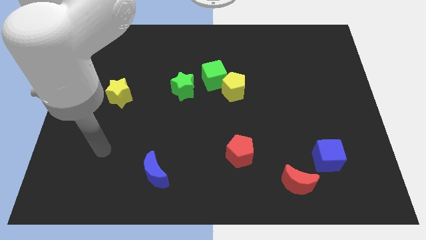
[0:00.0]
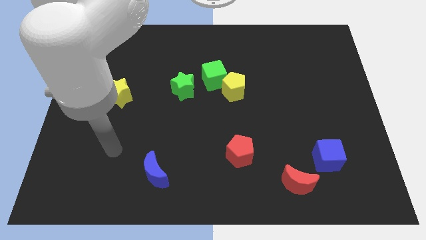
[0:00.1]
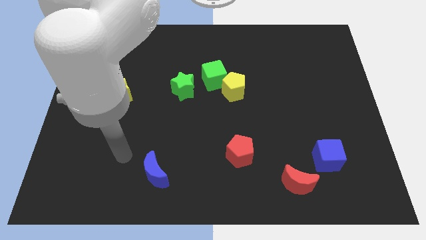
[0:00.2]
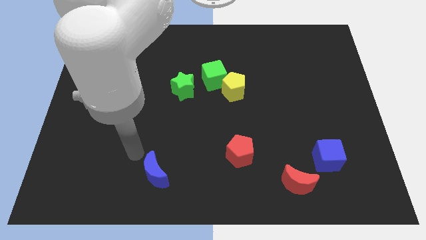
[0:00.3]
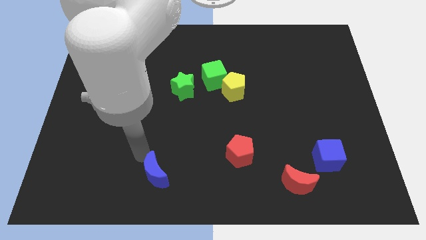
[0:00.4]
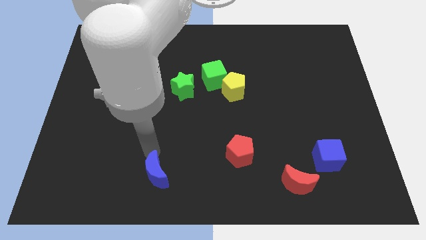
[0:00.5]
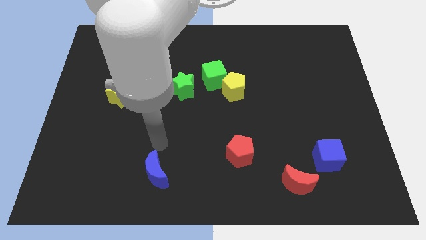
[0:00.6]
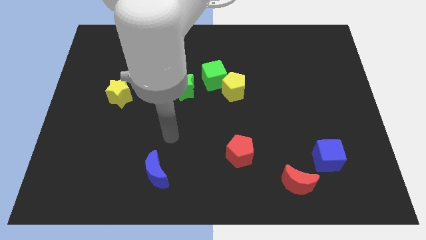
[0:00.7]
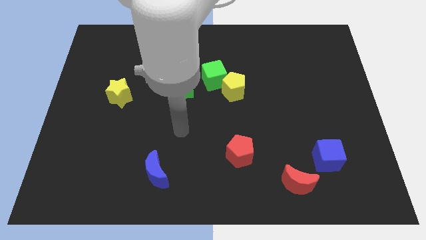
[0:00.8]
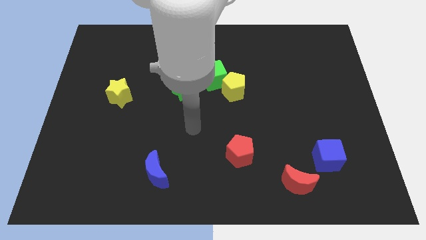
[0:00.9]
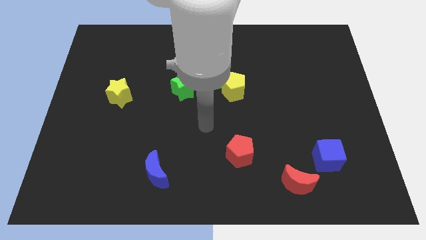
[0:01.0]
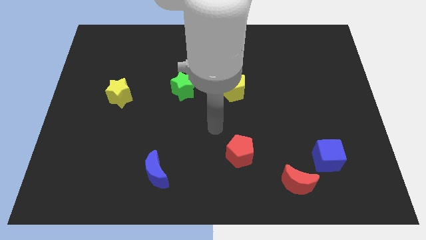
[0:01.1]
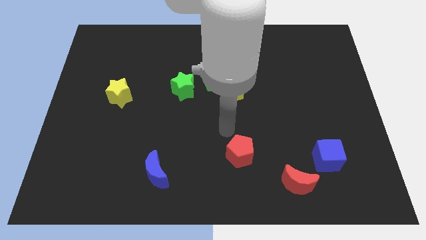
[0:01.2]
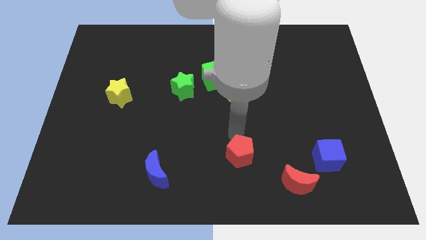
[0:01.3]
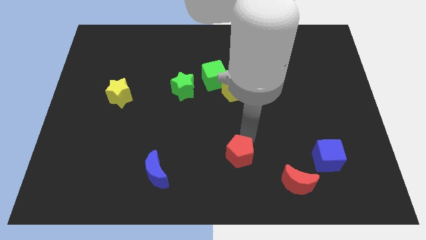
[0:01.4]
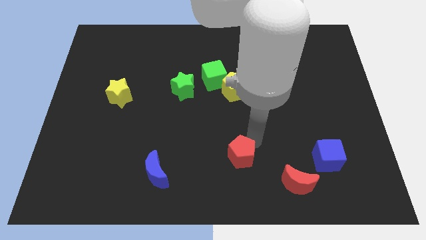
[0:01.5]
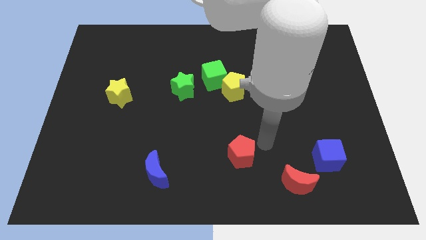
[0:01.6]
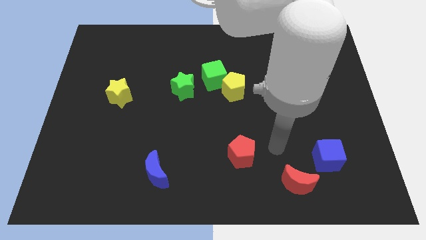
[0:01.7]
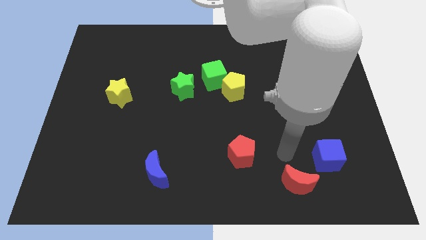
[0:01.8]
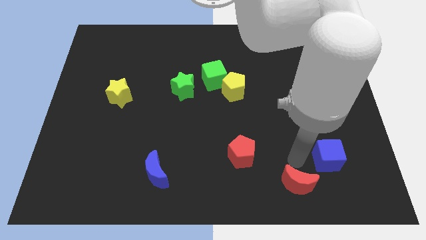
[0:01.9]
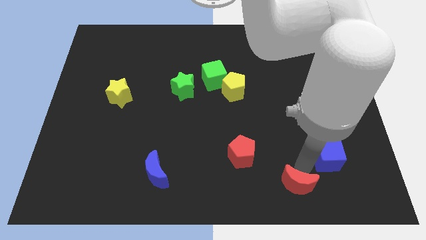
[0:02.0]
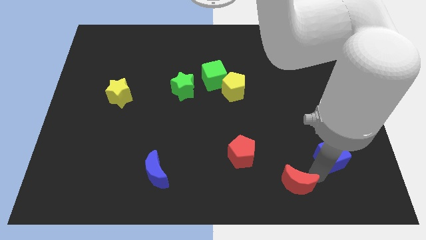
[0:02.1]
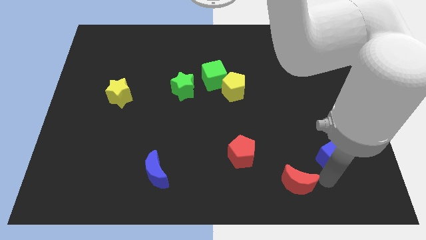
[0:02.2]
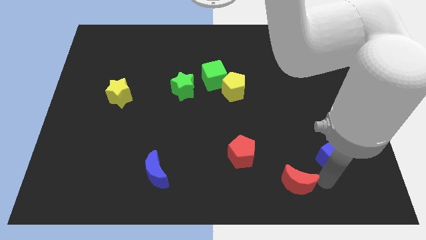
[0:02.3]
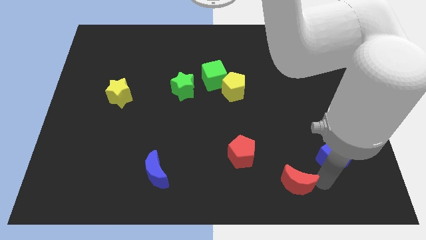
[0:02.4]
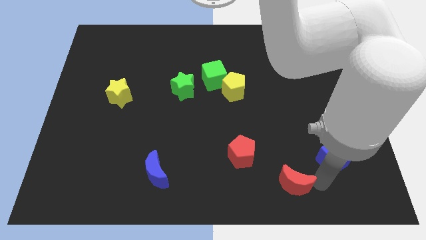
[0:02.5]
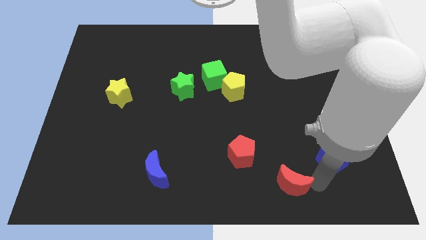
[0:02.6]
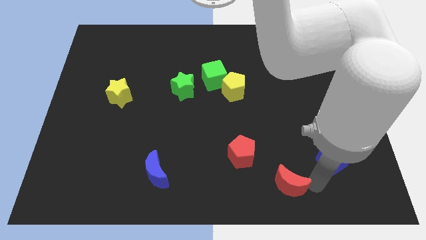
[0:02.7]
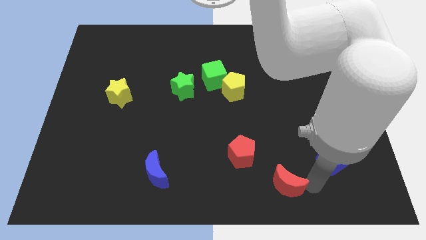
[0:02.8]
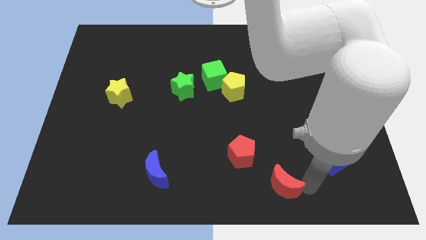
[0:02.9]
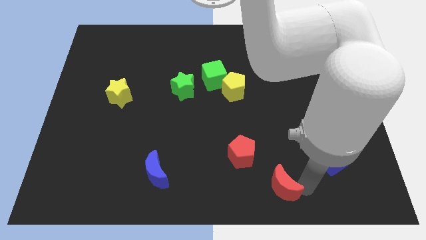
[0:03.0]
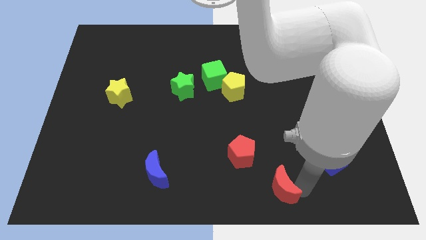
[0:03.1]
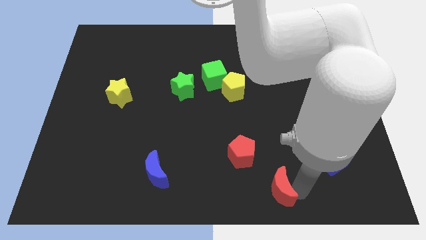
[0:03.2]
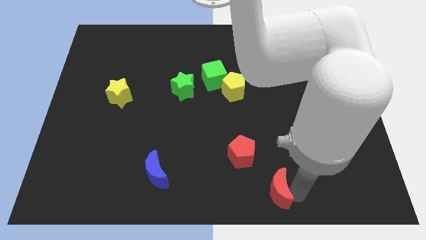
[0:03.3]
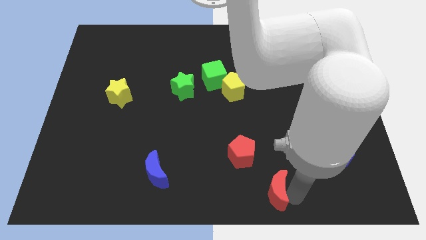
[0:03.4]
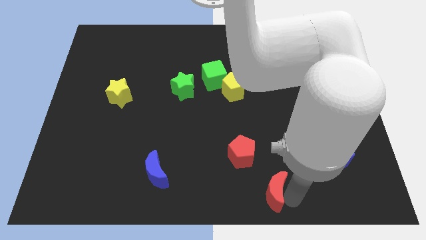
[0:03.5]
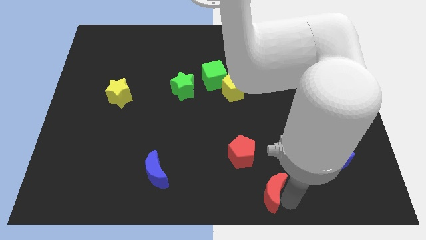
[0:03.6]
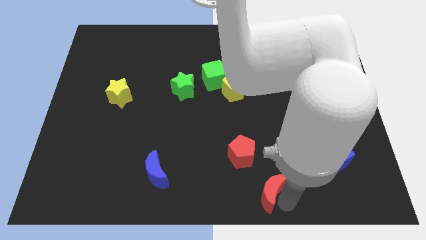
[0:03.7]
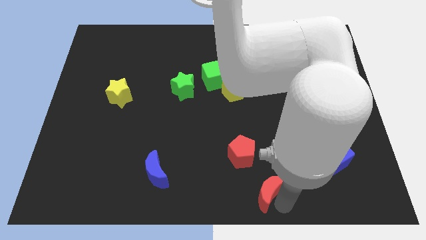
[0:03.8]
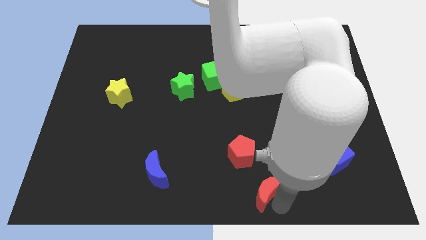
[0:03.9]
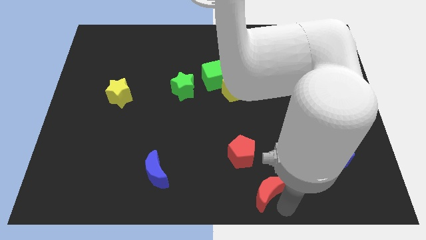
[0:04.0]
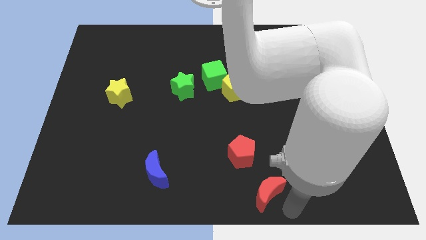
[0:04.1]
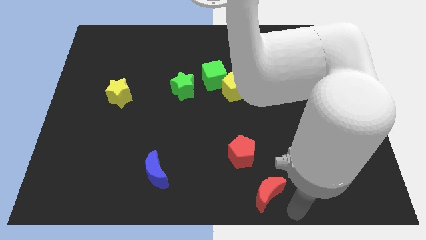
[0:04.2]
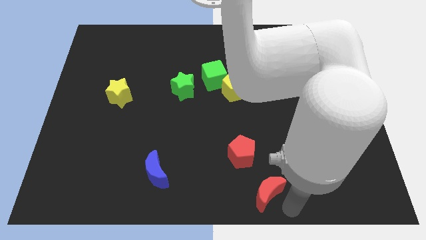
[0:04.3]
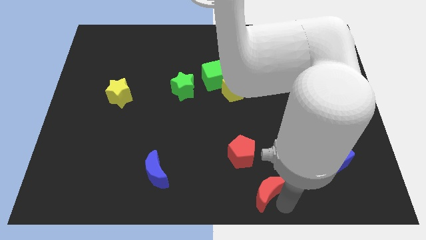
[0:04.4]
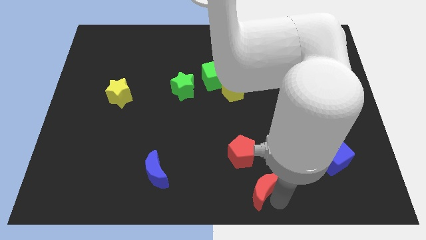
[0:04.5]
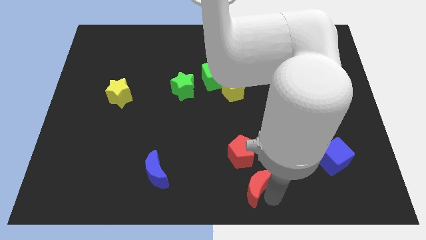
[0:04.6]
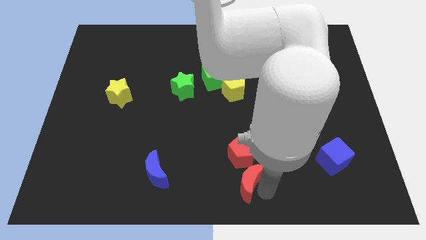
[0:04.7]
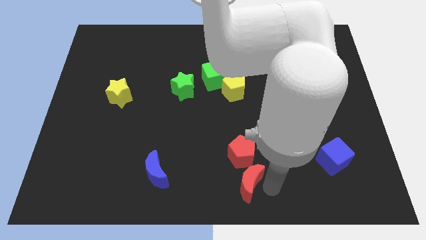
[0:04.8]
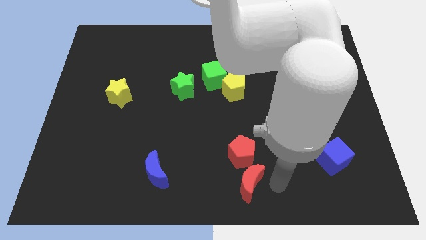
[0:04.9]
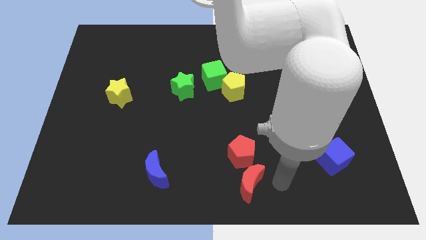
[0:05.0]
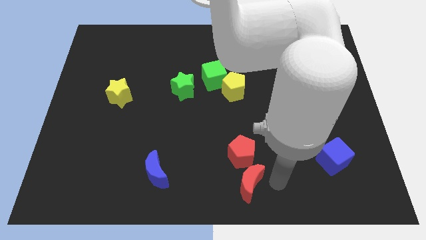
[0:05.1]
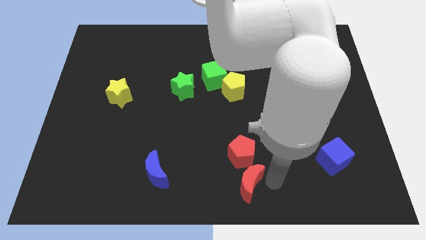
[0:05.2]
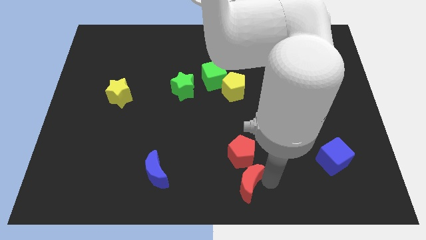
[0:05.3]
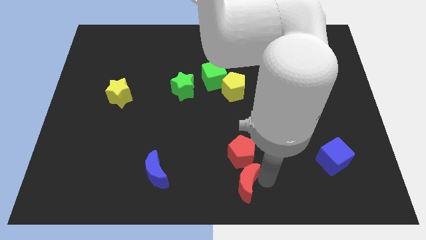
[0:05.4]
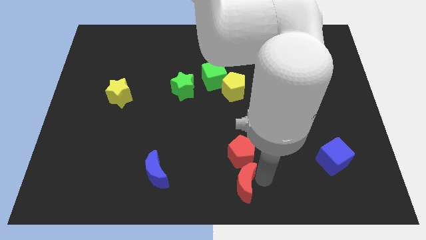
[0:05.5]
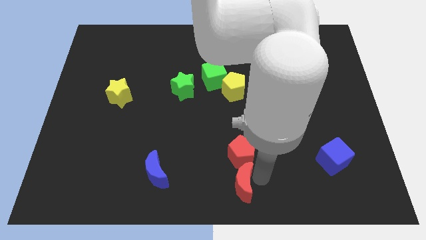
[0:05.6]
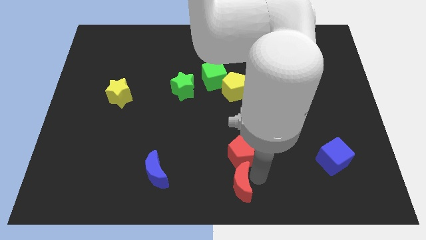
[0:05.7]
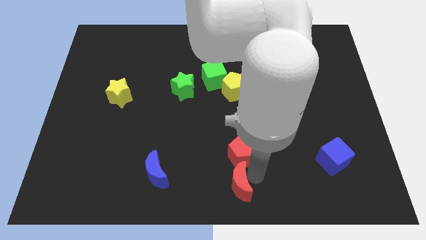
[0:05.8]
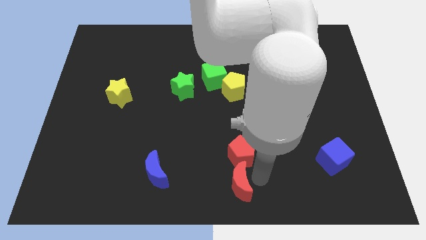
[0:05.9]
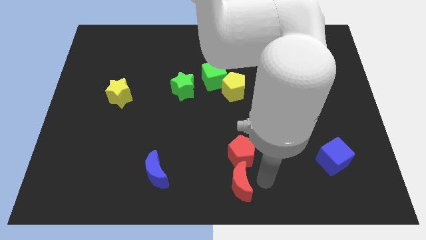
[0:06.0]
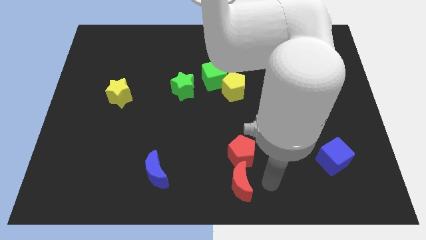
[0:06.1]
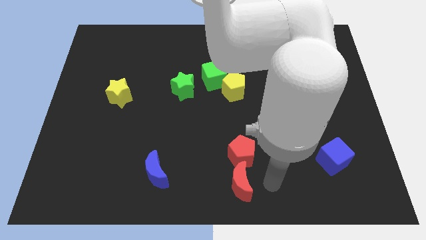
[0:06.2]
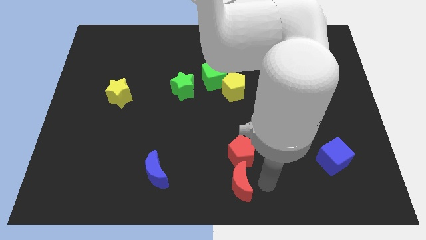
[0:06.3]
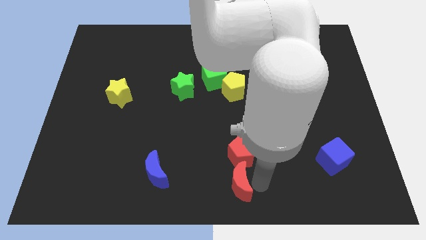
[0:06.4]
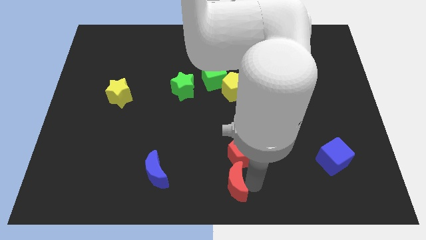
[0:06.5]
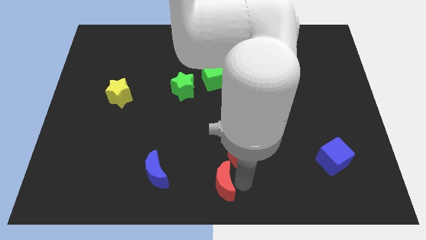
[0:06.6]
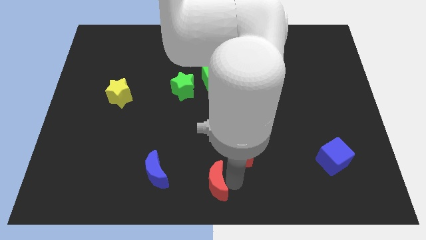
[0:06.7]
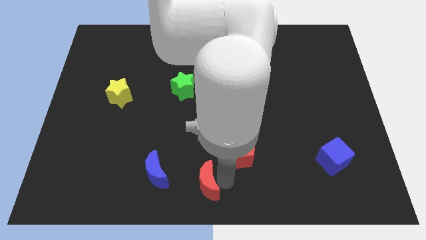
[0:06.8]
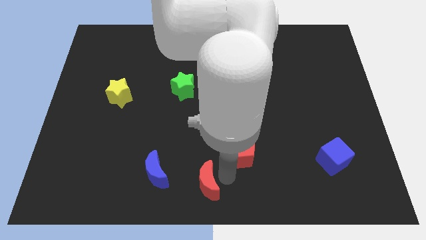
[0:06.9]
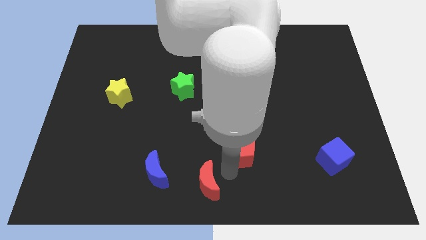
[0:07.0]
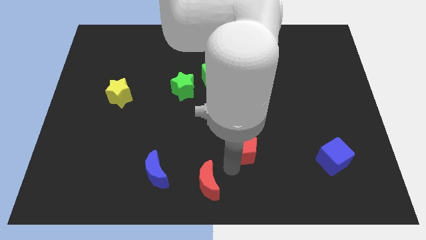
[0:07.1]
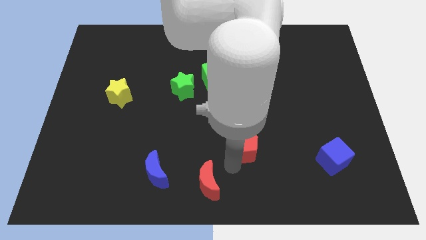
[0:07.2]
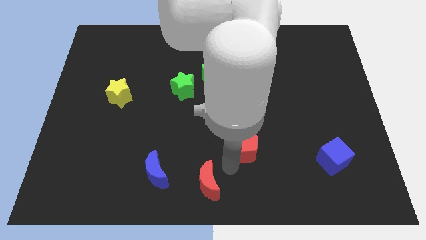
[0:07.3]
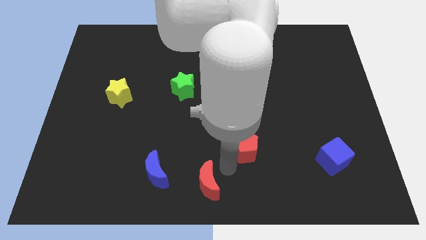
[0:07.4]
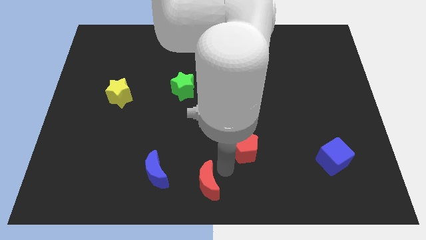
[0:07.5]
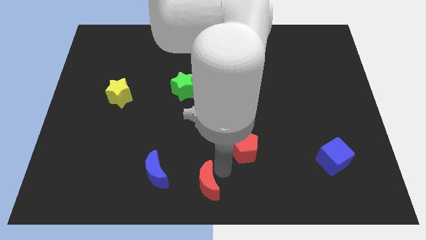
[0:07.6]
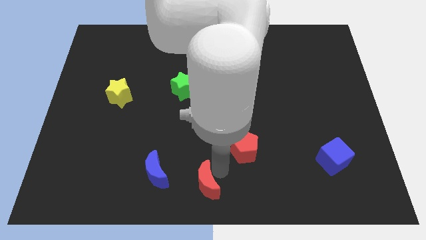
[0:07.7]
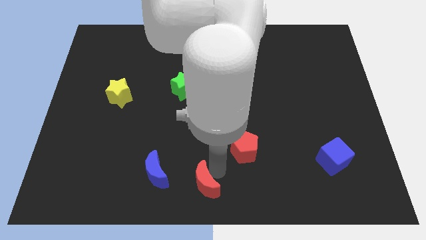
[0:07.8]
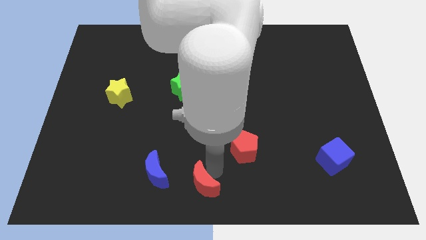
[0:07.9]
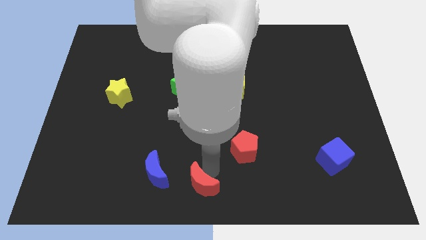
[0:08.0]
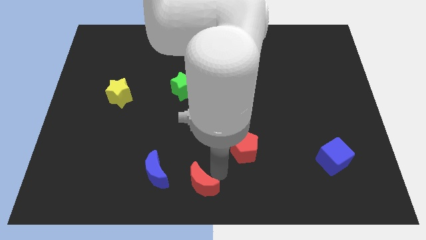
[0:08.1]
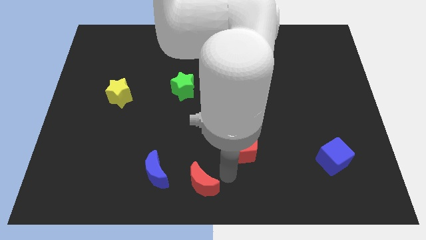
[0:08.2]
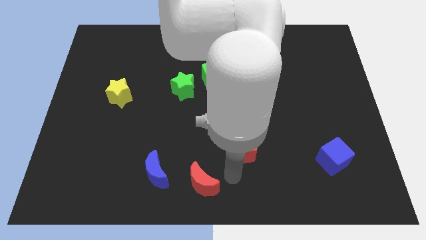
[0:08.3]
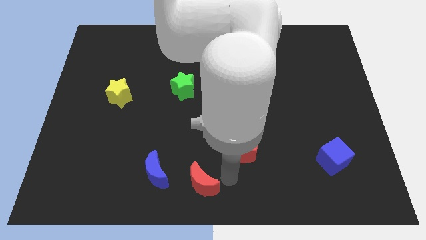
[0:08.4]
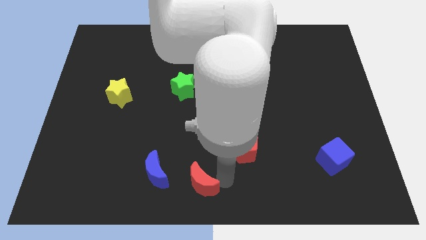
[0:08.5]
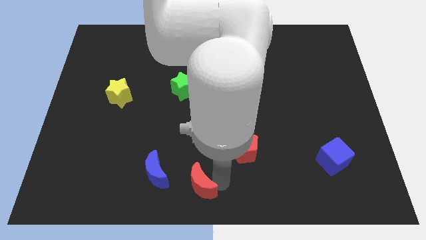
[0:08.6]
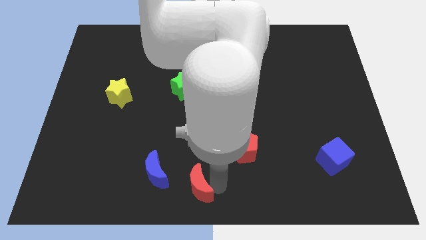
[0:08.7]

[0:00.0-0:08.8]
push the red moon to the left
